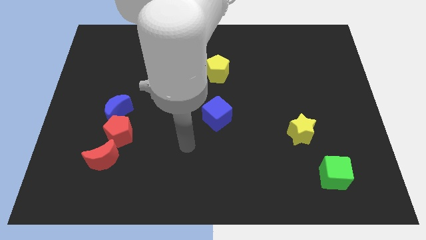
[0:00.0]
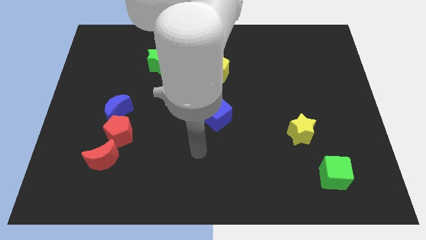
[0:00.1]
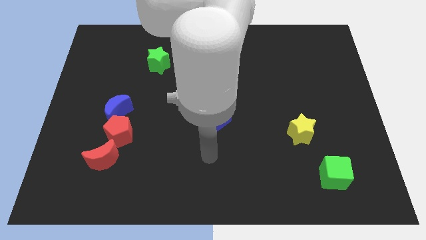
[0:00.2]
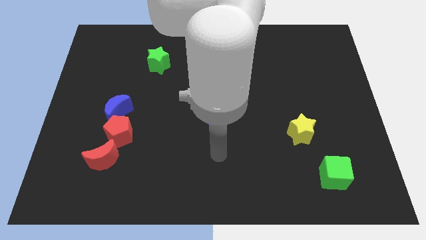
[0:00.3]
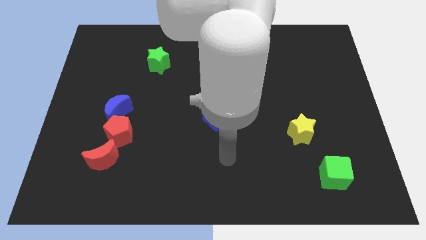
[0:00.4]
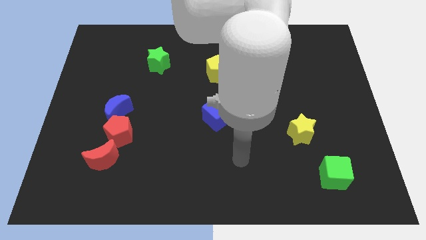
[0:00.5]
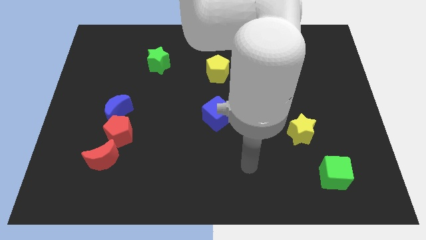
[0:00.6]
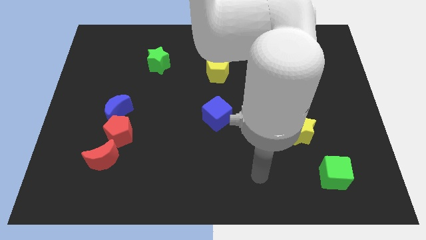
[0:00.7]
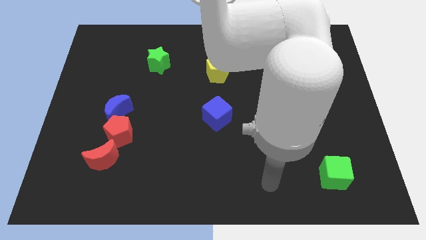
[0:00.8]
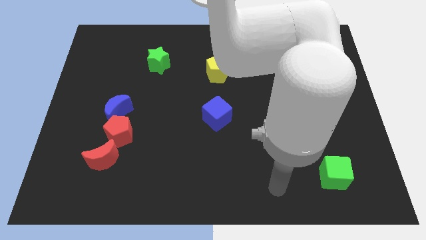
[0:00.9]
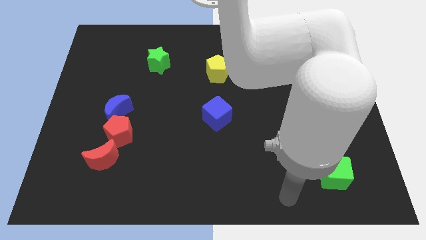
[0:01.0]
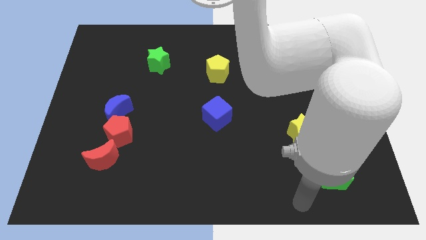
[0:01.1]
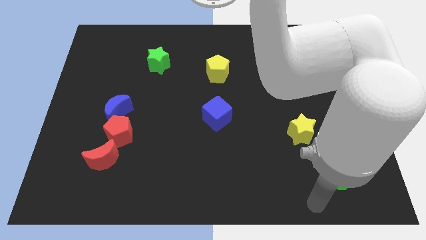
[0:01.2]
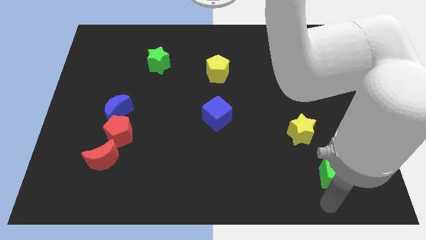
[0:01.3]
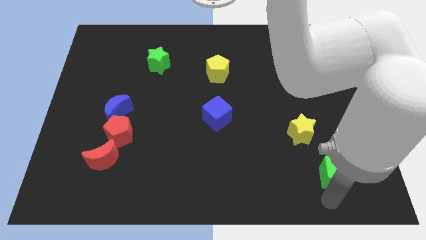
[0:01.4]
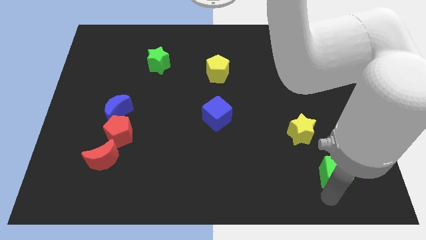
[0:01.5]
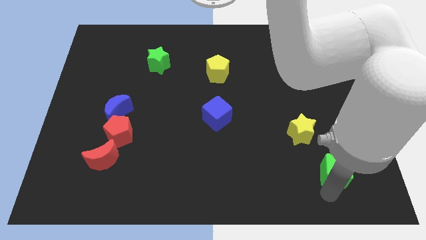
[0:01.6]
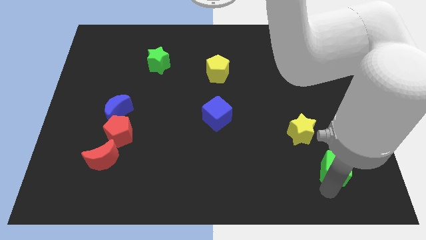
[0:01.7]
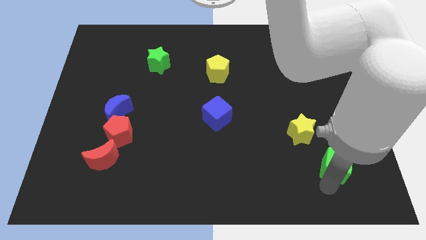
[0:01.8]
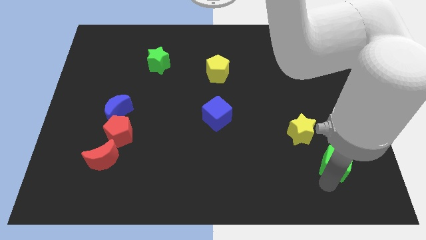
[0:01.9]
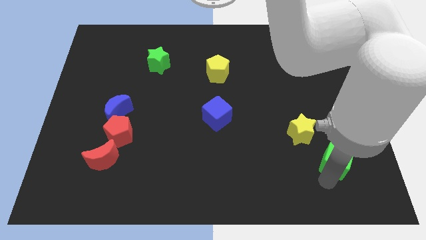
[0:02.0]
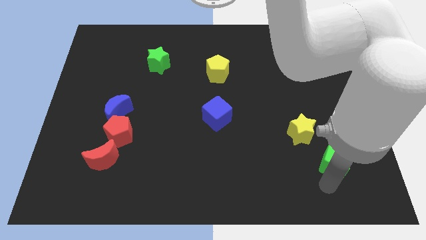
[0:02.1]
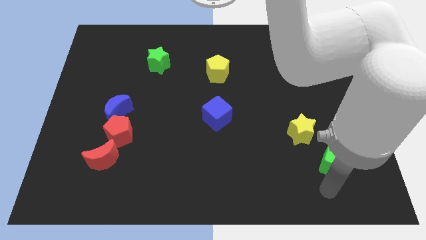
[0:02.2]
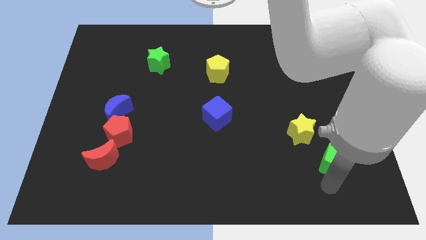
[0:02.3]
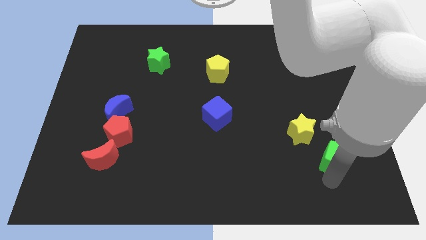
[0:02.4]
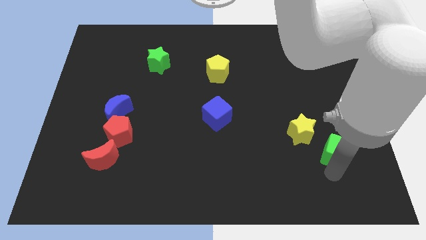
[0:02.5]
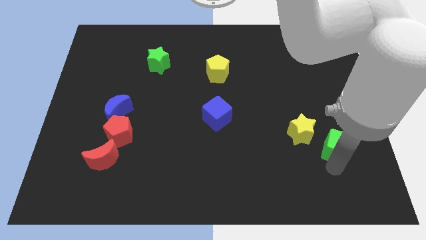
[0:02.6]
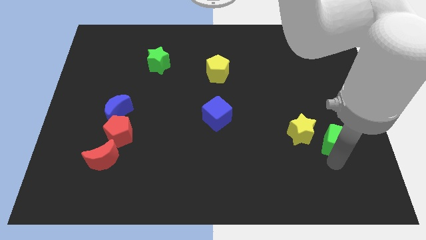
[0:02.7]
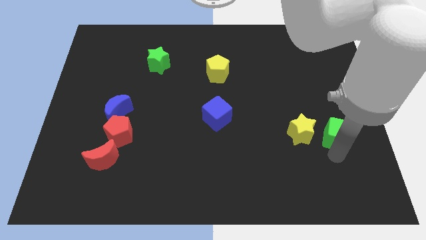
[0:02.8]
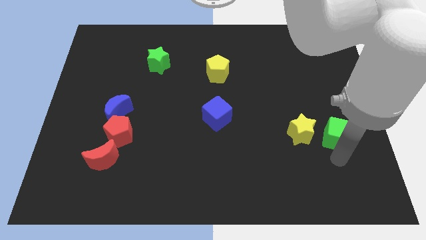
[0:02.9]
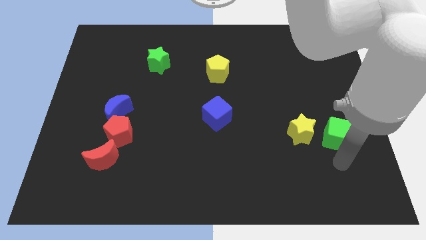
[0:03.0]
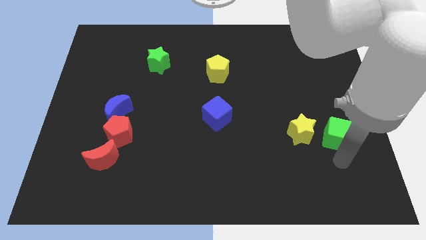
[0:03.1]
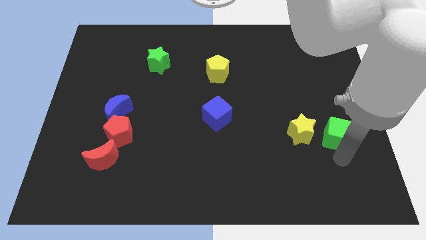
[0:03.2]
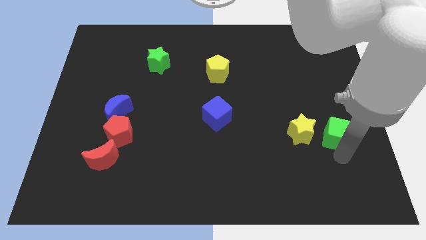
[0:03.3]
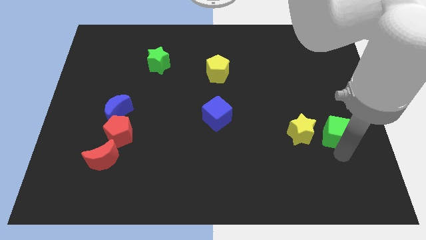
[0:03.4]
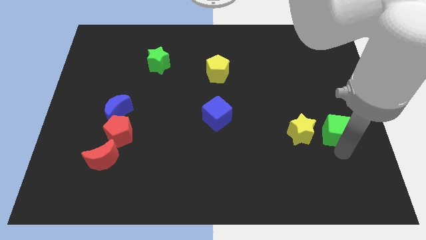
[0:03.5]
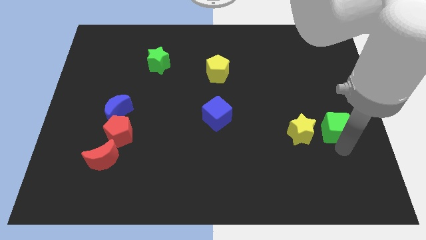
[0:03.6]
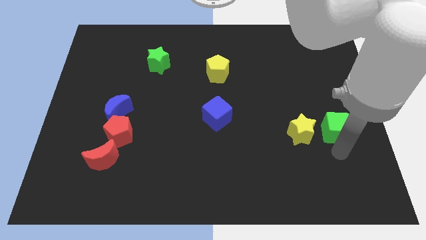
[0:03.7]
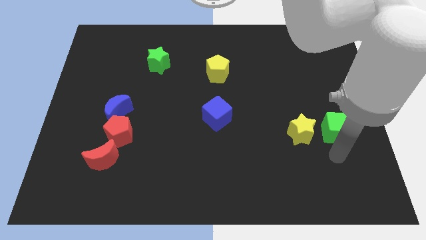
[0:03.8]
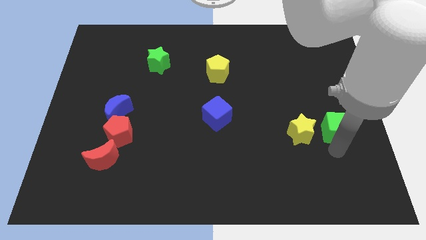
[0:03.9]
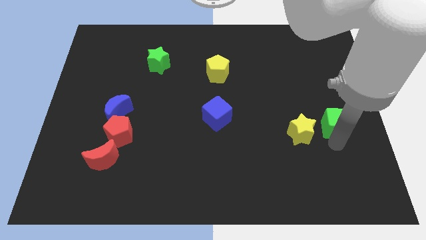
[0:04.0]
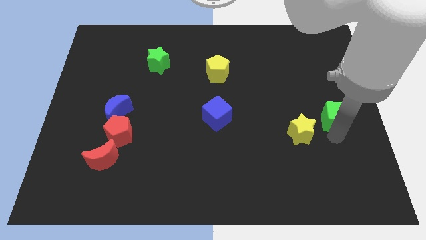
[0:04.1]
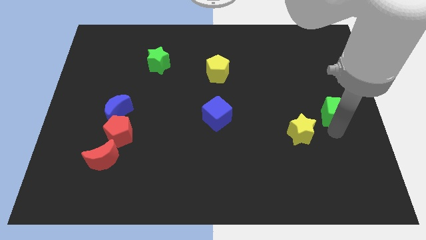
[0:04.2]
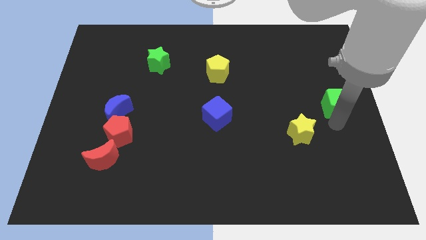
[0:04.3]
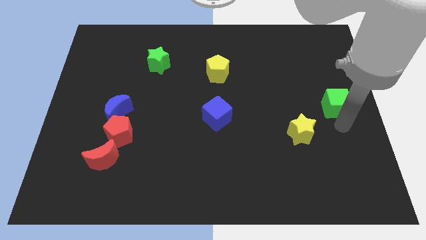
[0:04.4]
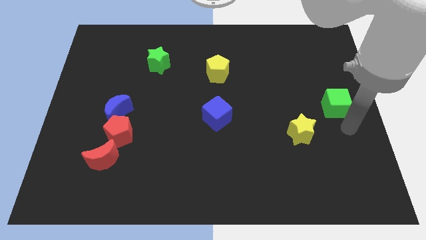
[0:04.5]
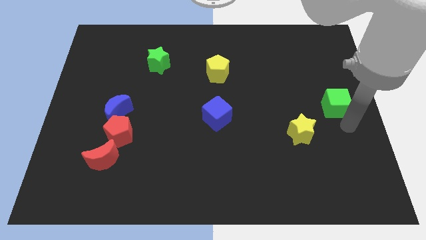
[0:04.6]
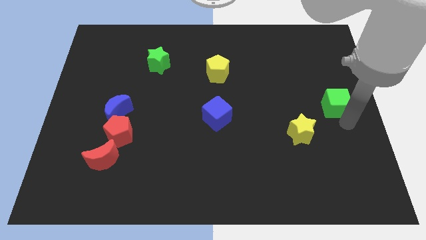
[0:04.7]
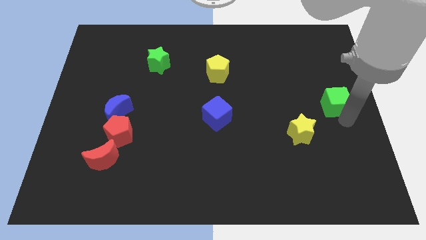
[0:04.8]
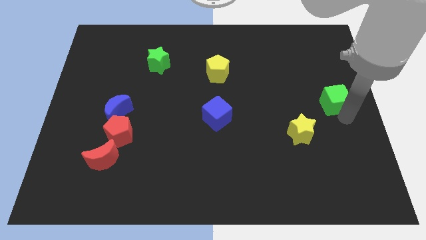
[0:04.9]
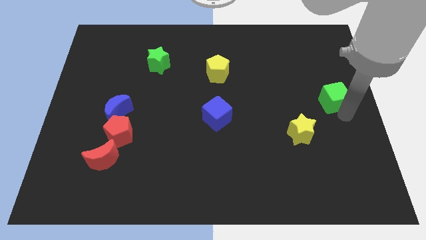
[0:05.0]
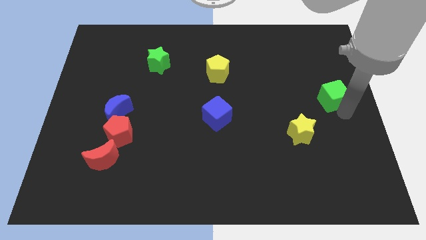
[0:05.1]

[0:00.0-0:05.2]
slide the green cube up

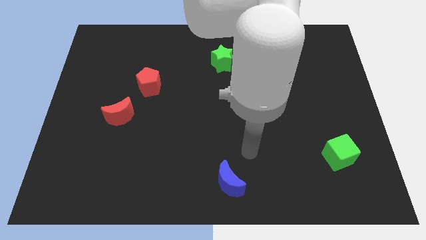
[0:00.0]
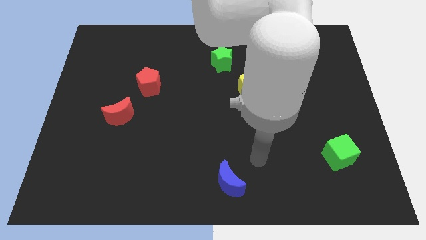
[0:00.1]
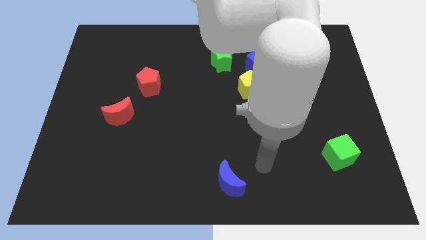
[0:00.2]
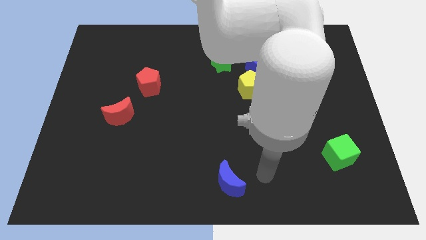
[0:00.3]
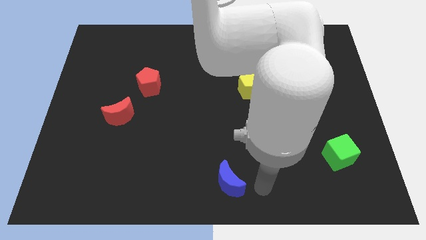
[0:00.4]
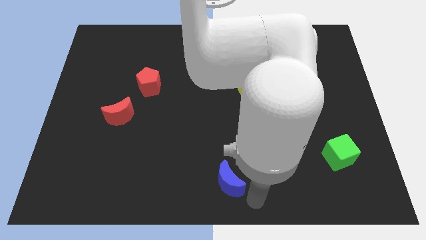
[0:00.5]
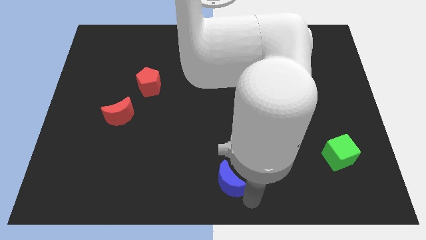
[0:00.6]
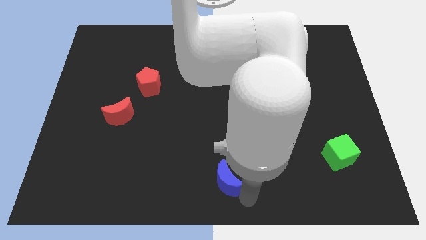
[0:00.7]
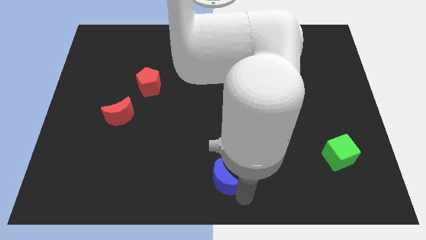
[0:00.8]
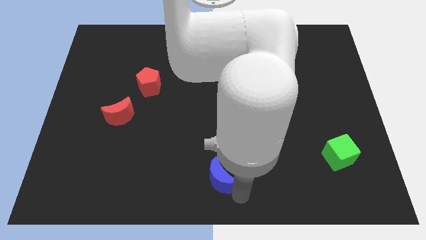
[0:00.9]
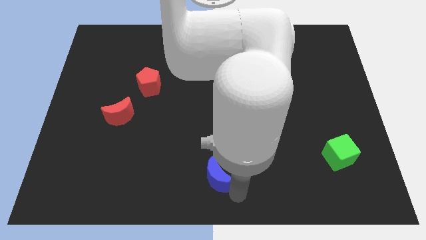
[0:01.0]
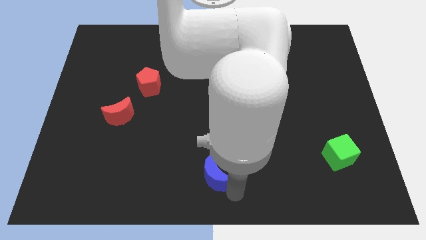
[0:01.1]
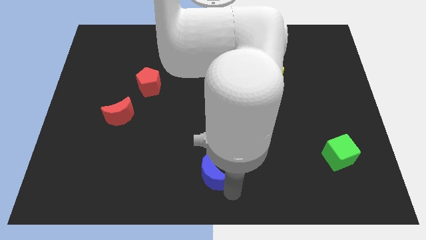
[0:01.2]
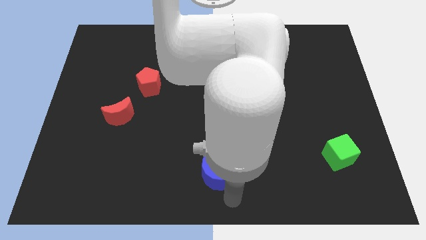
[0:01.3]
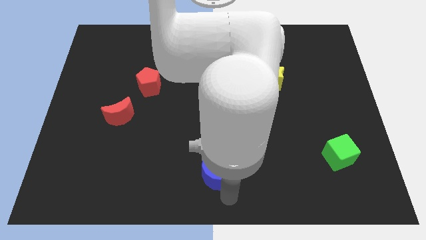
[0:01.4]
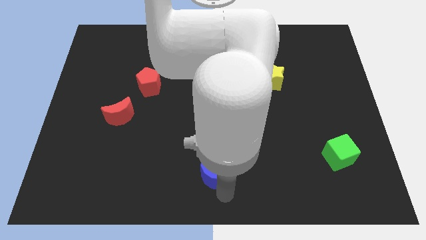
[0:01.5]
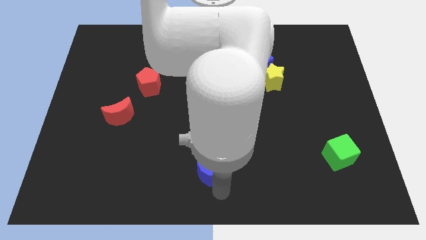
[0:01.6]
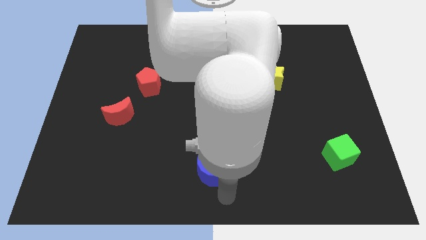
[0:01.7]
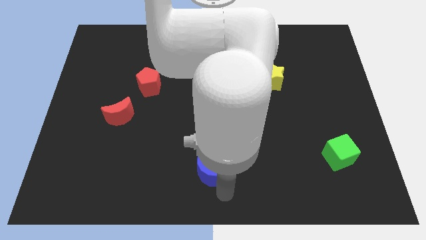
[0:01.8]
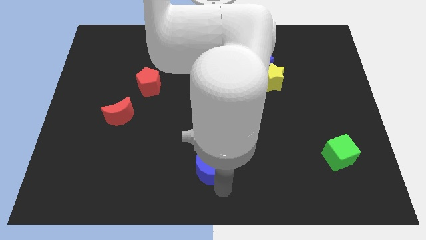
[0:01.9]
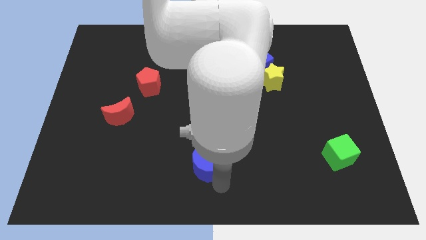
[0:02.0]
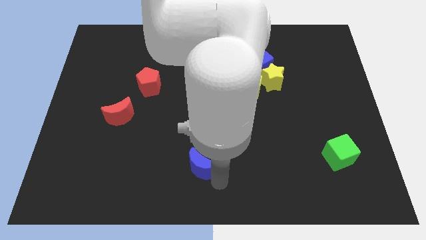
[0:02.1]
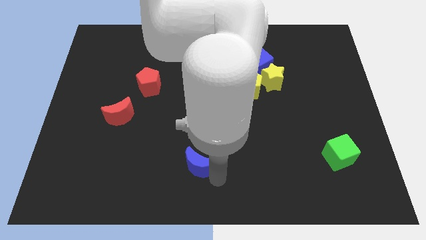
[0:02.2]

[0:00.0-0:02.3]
slightly move the blue moon upwards and to the left diagonally

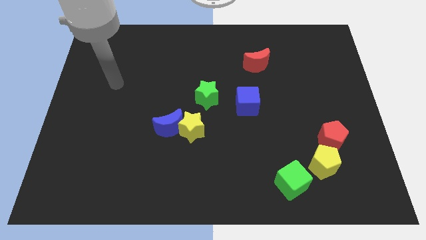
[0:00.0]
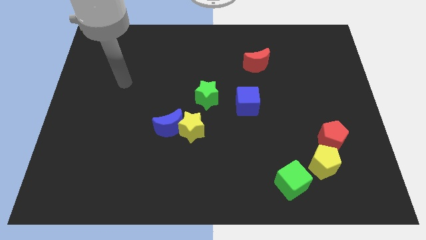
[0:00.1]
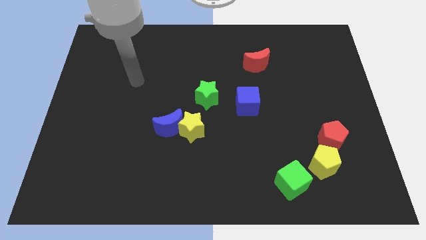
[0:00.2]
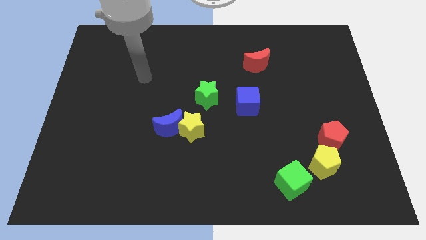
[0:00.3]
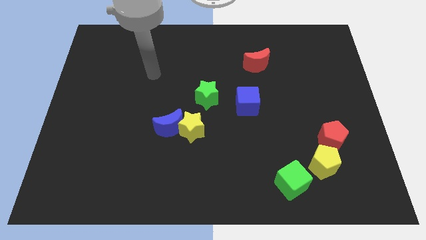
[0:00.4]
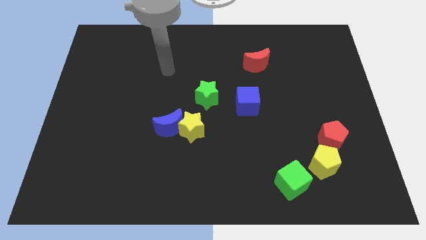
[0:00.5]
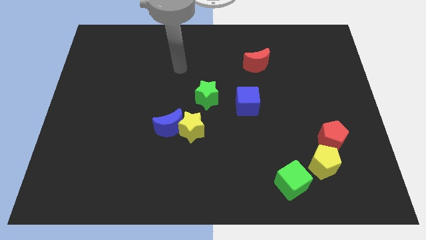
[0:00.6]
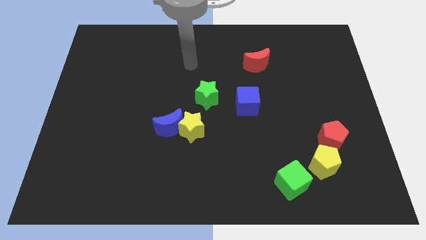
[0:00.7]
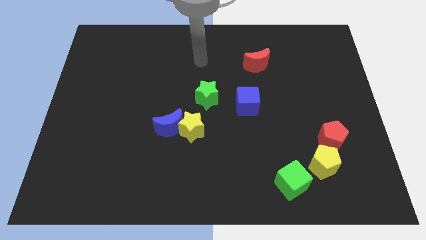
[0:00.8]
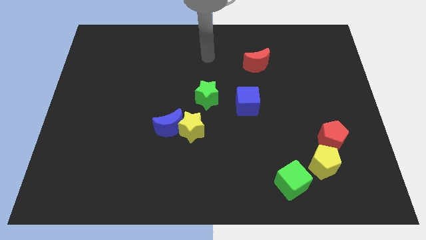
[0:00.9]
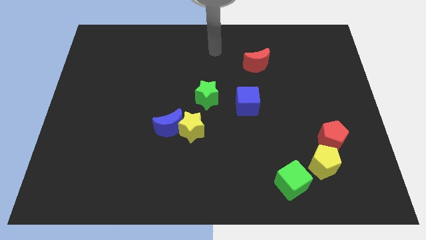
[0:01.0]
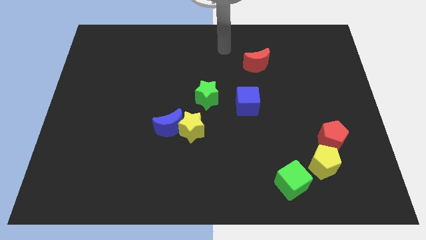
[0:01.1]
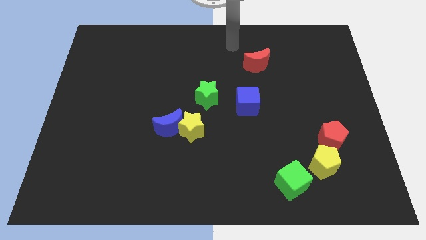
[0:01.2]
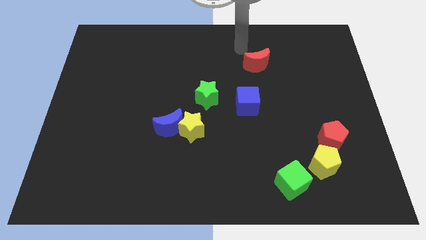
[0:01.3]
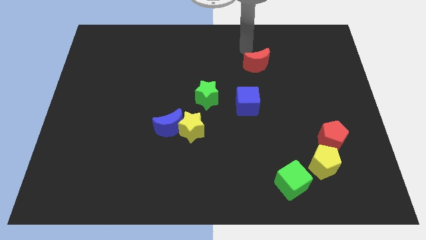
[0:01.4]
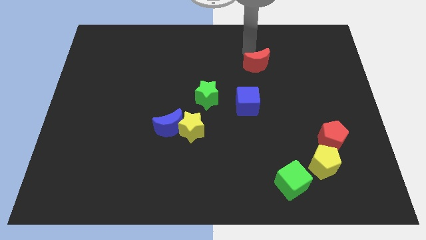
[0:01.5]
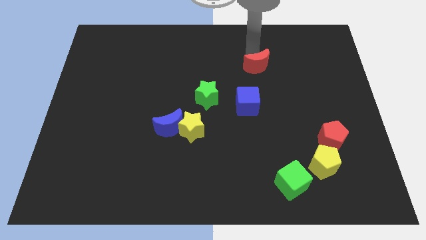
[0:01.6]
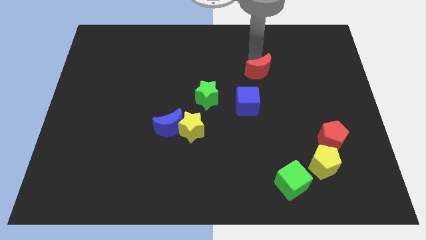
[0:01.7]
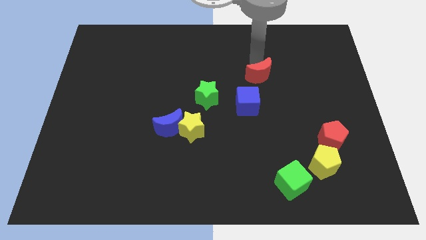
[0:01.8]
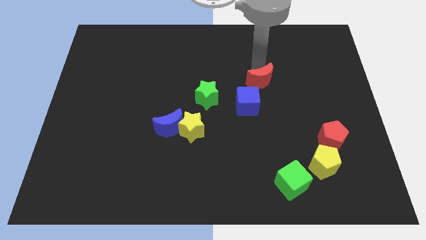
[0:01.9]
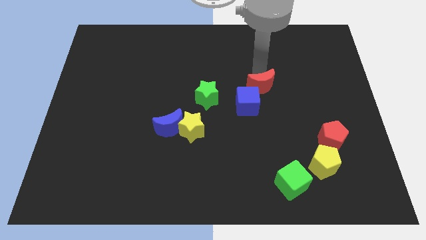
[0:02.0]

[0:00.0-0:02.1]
slide the red moon somewhat downwards
